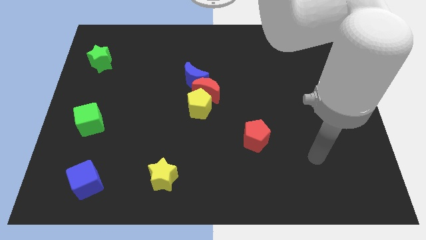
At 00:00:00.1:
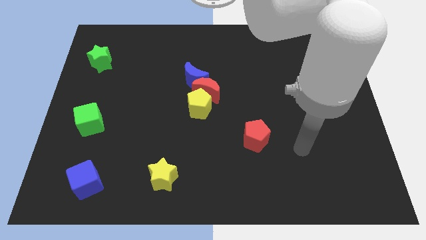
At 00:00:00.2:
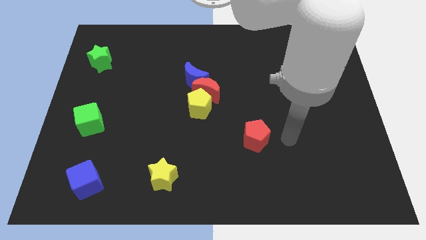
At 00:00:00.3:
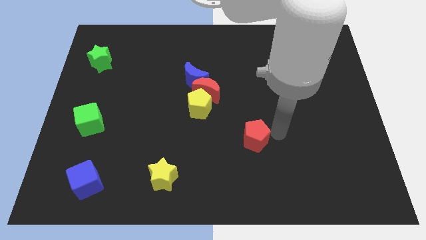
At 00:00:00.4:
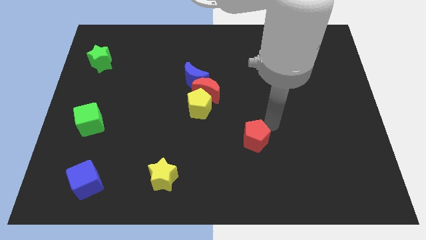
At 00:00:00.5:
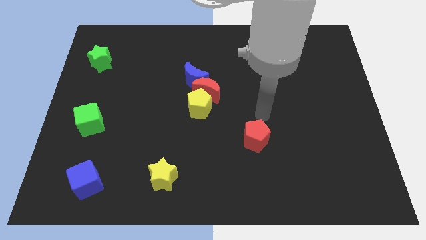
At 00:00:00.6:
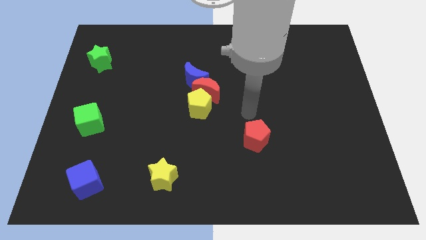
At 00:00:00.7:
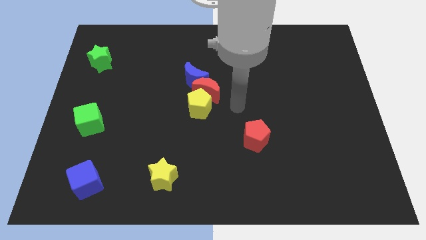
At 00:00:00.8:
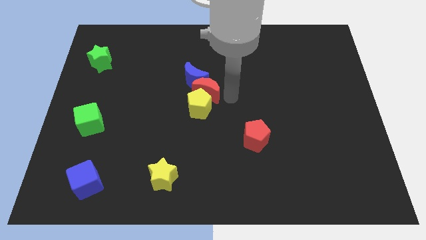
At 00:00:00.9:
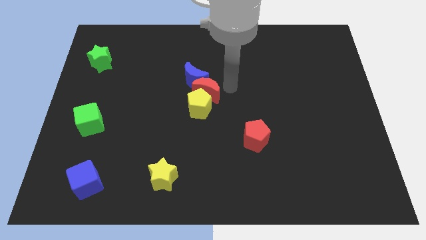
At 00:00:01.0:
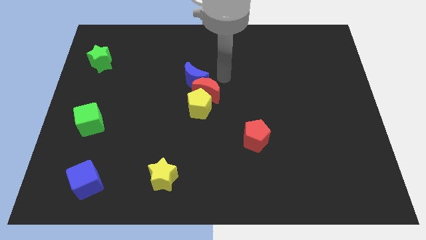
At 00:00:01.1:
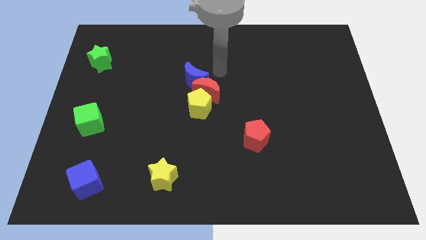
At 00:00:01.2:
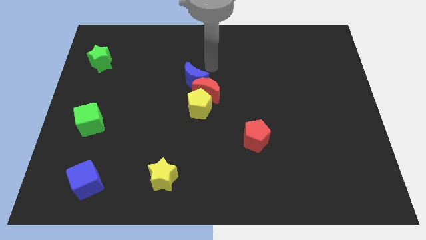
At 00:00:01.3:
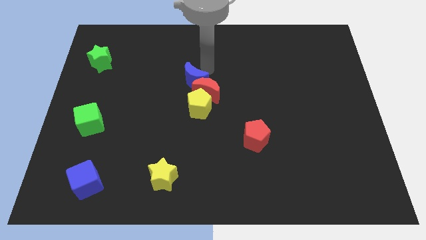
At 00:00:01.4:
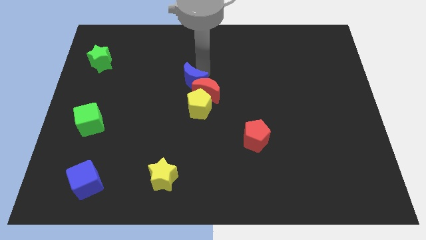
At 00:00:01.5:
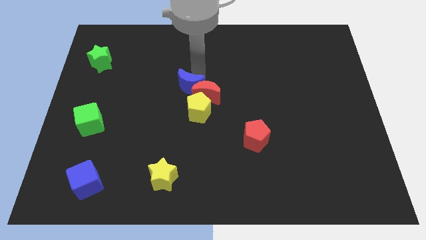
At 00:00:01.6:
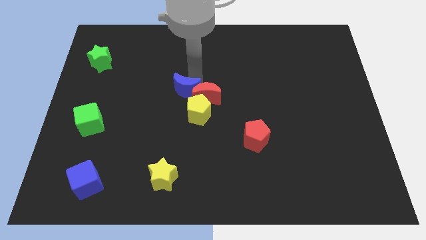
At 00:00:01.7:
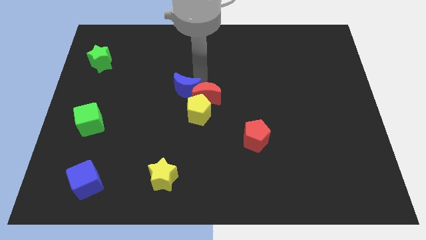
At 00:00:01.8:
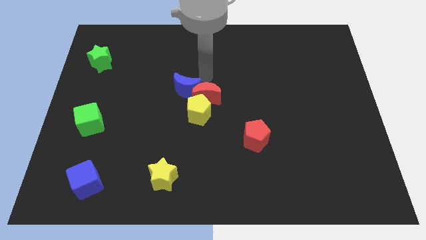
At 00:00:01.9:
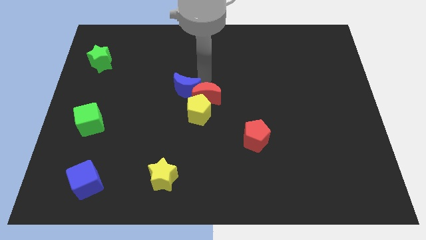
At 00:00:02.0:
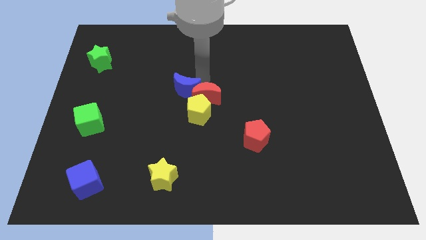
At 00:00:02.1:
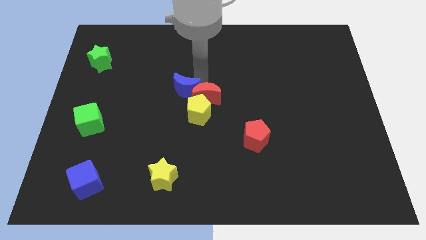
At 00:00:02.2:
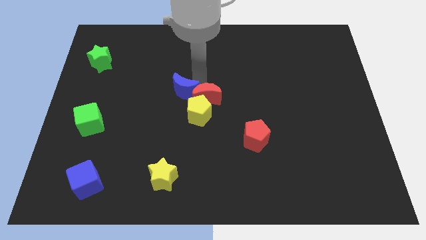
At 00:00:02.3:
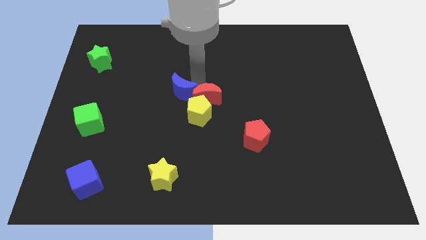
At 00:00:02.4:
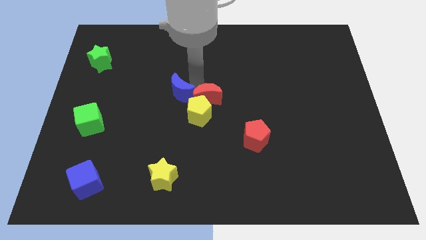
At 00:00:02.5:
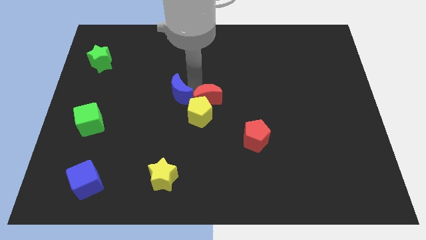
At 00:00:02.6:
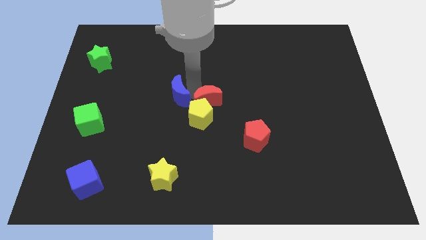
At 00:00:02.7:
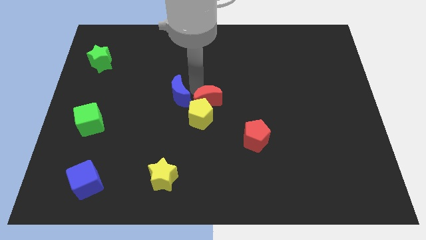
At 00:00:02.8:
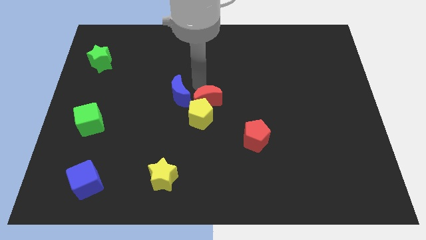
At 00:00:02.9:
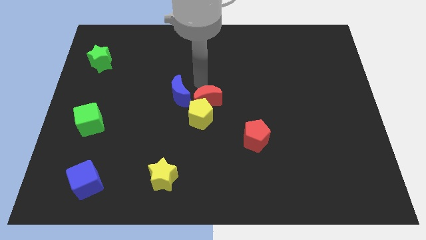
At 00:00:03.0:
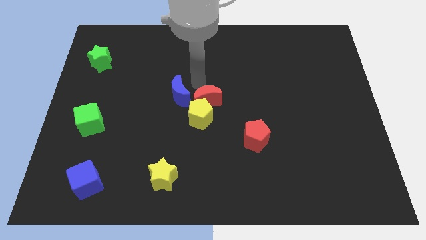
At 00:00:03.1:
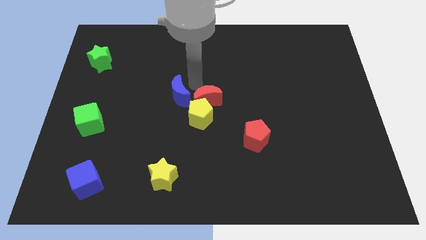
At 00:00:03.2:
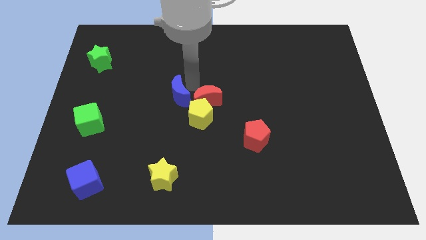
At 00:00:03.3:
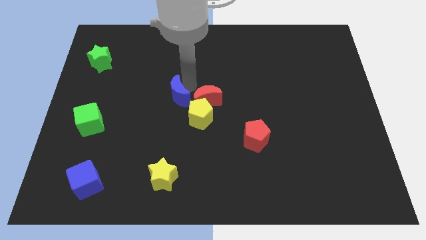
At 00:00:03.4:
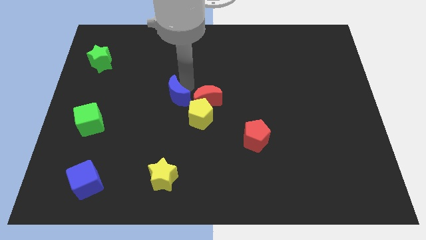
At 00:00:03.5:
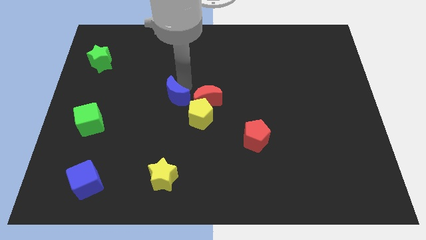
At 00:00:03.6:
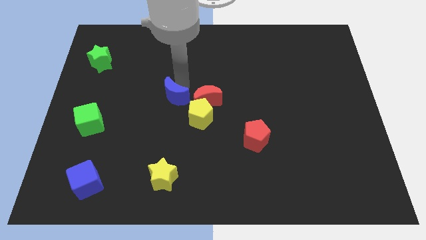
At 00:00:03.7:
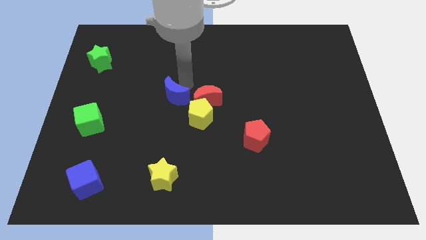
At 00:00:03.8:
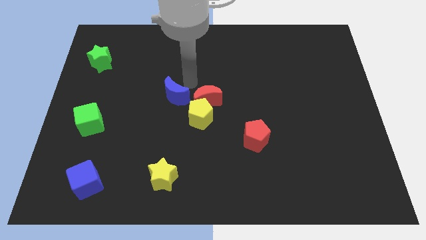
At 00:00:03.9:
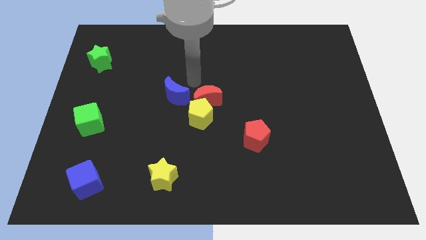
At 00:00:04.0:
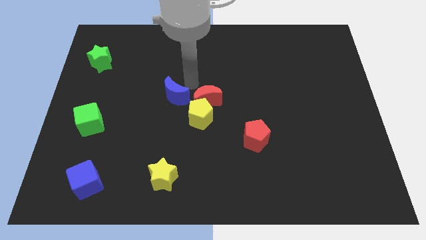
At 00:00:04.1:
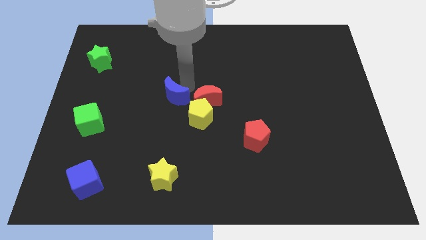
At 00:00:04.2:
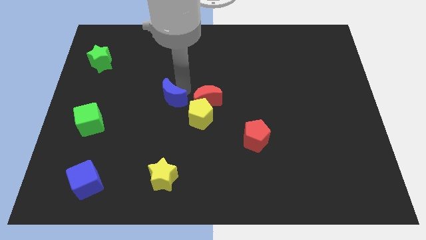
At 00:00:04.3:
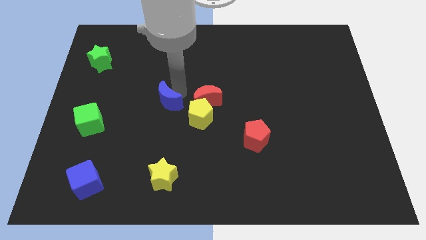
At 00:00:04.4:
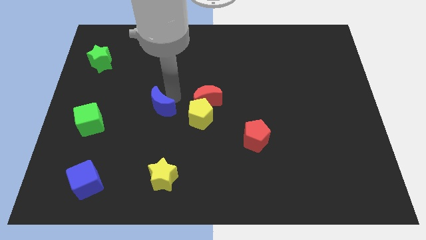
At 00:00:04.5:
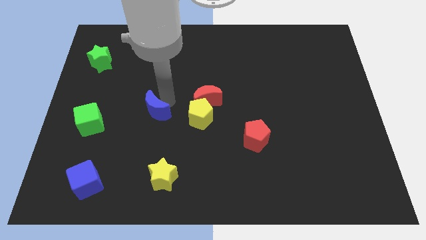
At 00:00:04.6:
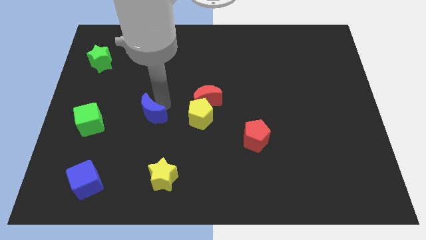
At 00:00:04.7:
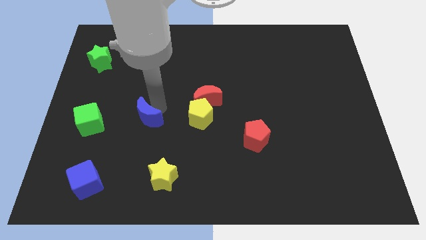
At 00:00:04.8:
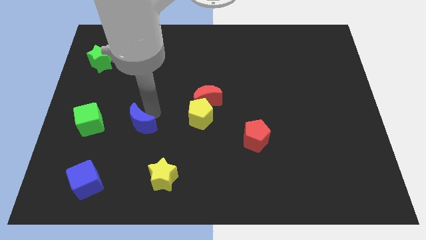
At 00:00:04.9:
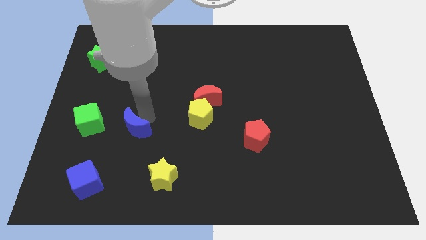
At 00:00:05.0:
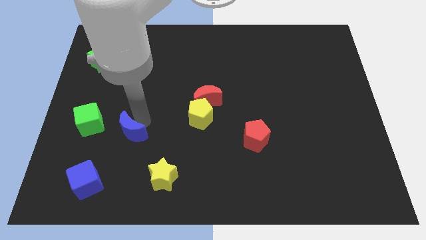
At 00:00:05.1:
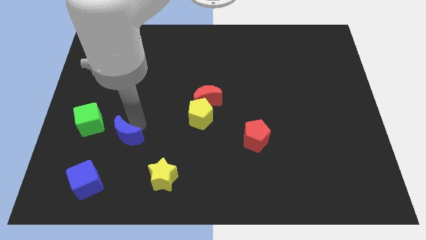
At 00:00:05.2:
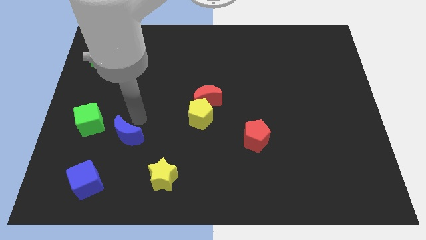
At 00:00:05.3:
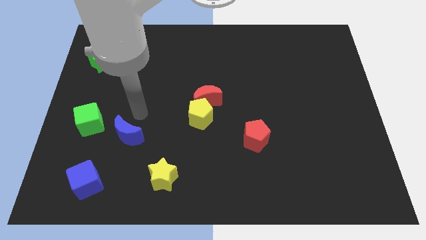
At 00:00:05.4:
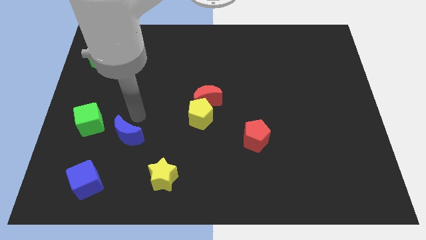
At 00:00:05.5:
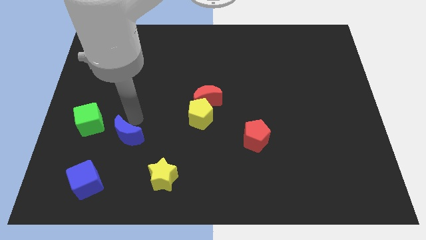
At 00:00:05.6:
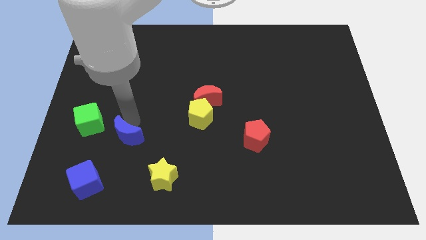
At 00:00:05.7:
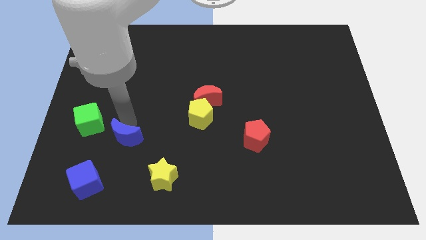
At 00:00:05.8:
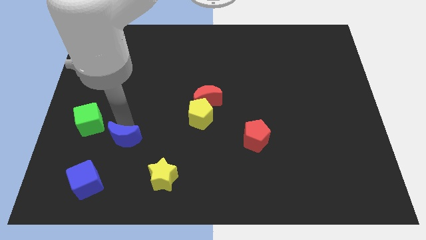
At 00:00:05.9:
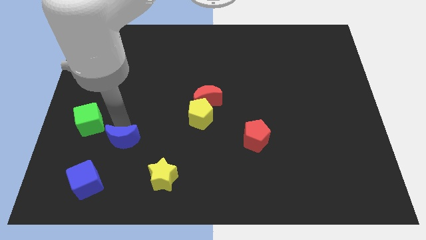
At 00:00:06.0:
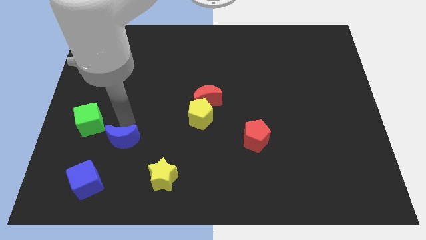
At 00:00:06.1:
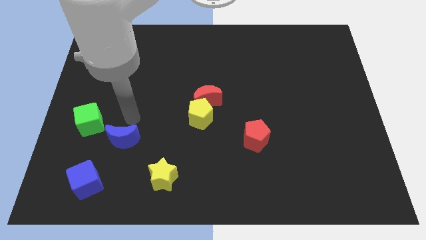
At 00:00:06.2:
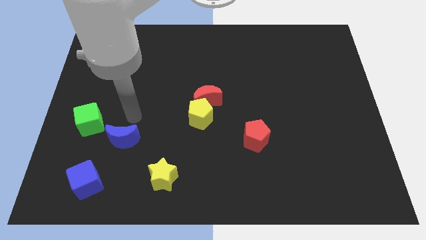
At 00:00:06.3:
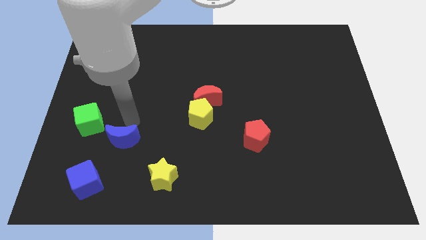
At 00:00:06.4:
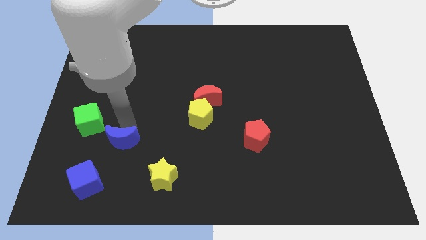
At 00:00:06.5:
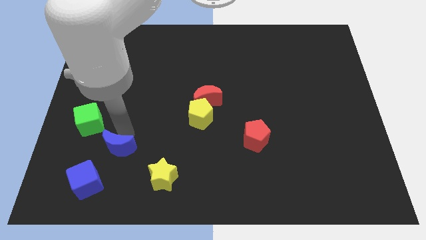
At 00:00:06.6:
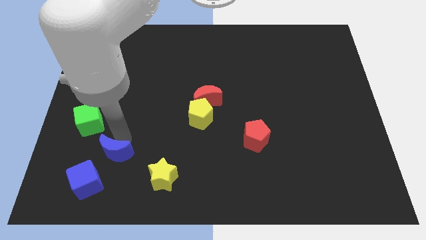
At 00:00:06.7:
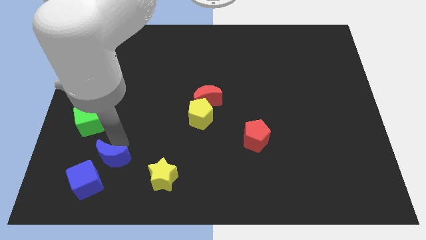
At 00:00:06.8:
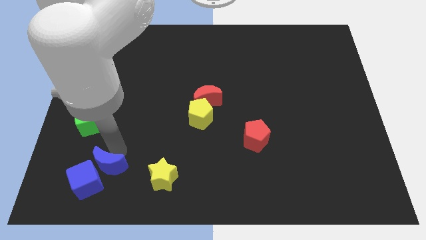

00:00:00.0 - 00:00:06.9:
move the blue moon close to the blue cube
